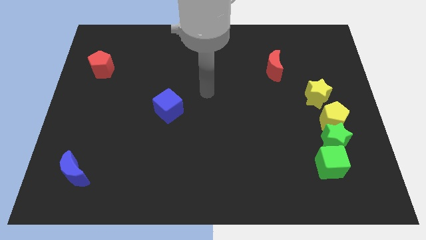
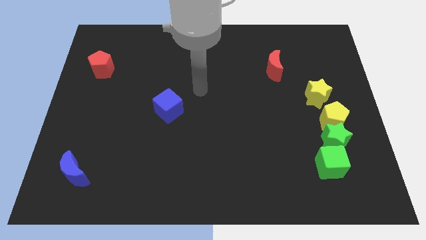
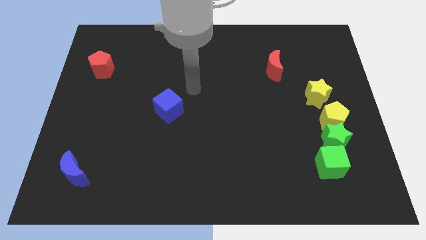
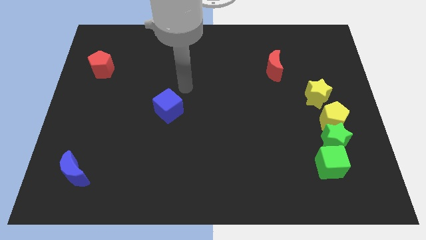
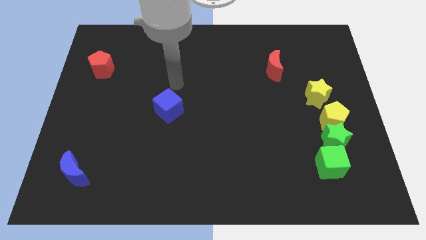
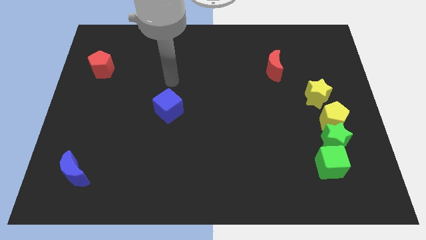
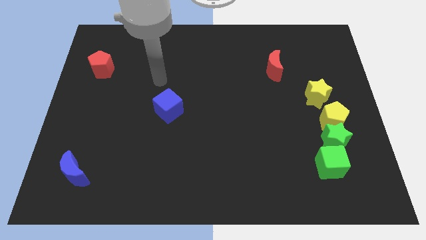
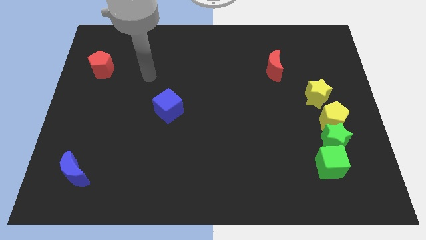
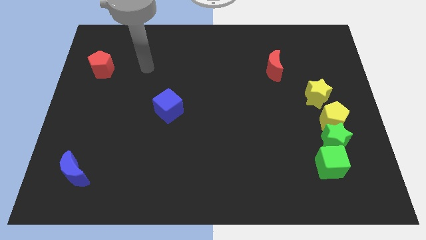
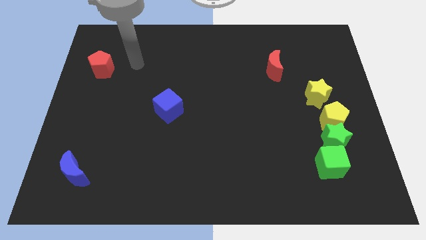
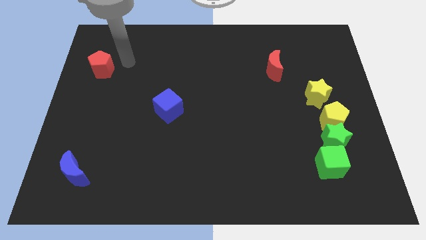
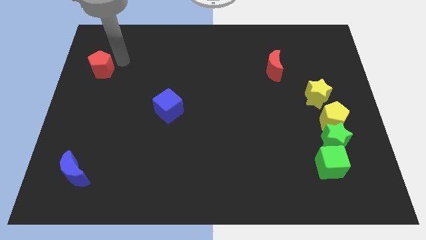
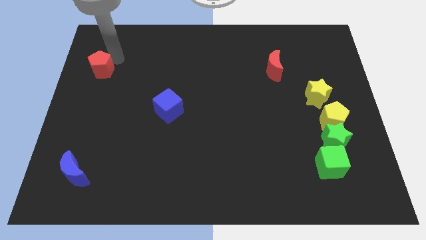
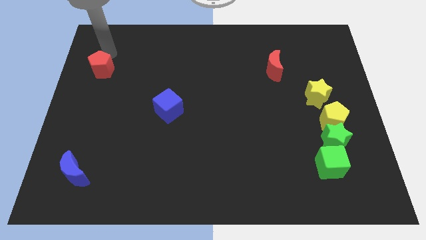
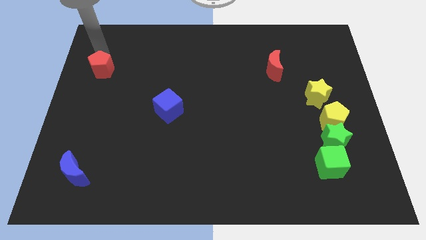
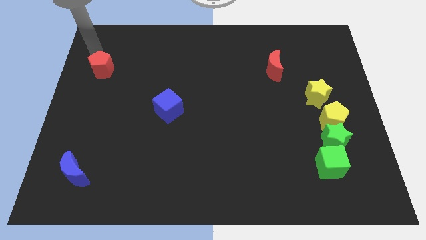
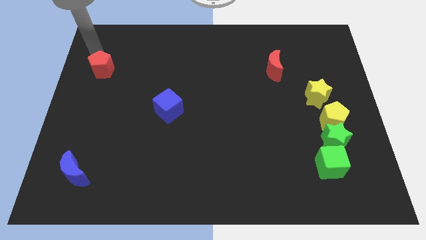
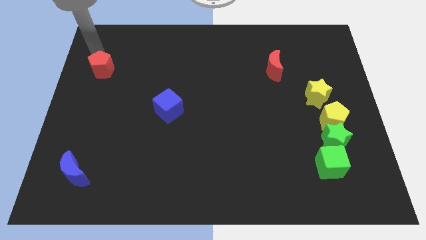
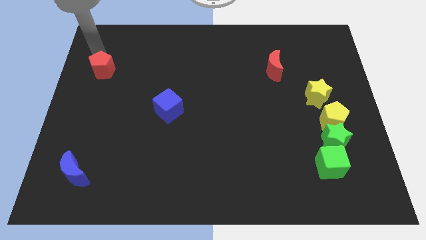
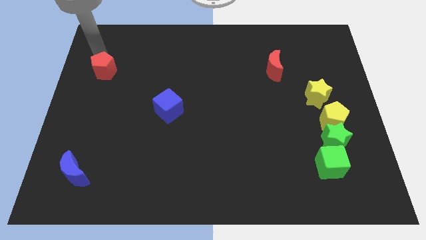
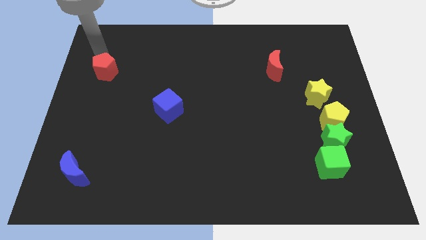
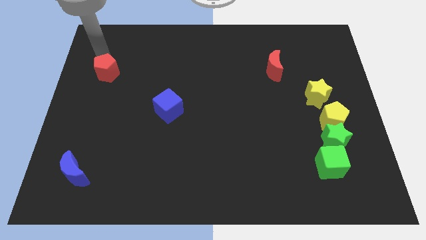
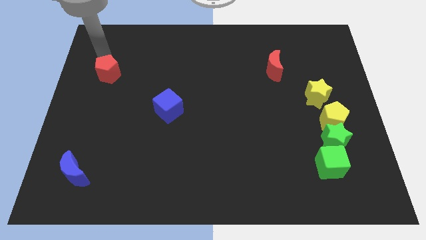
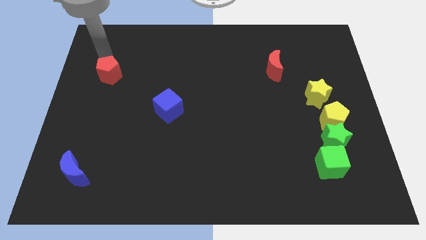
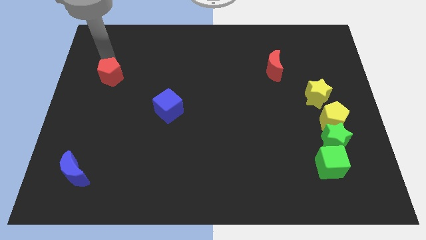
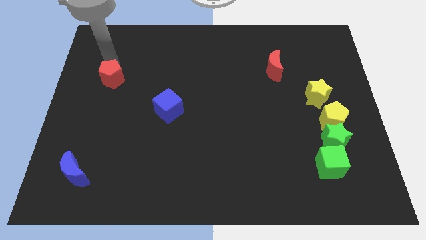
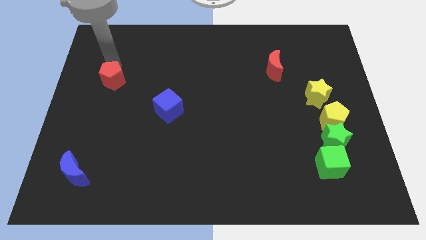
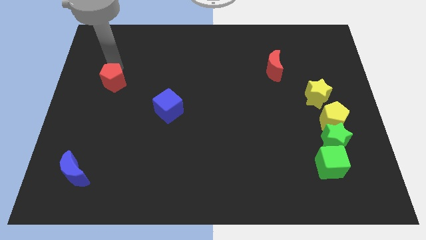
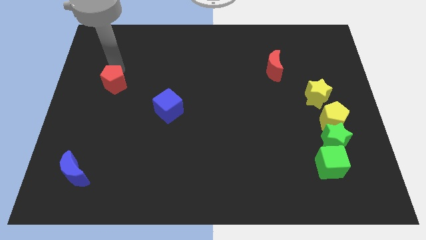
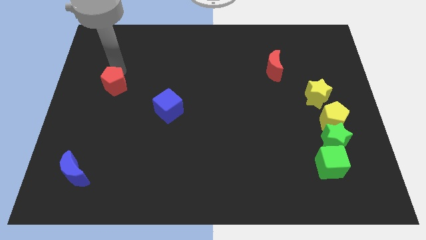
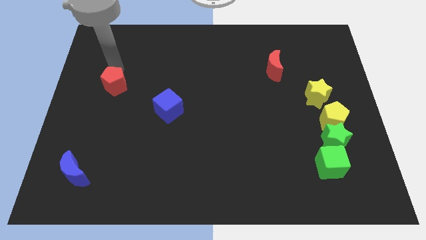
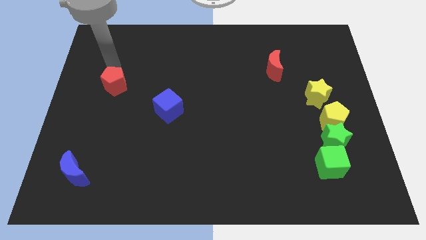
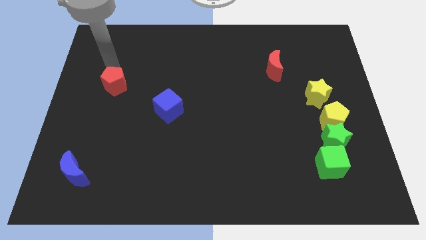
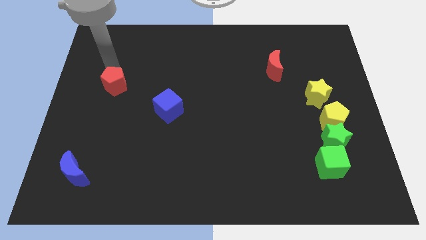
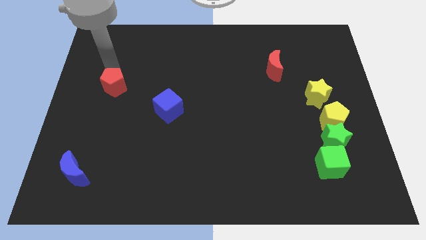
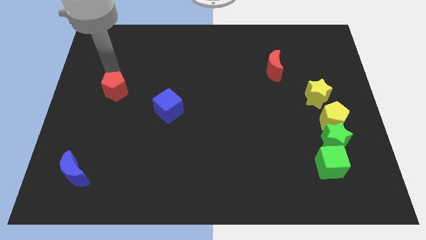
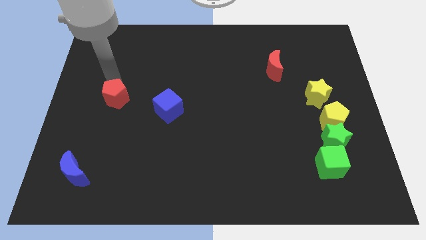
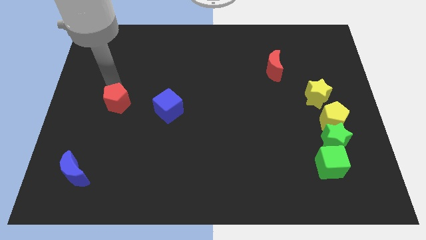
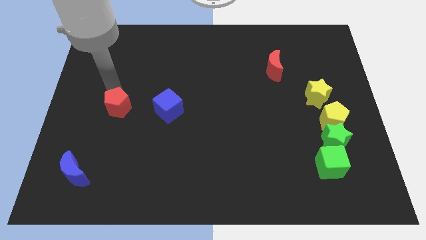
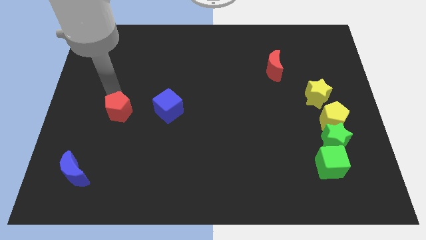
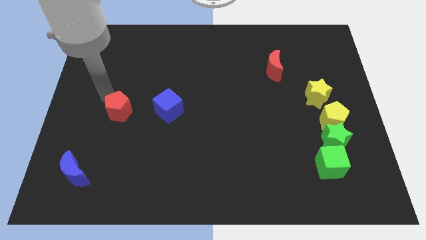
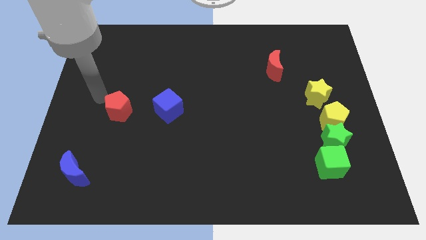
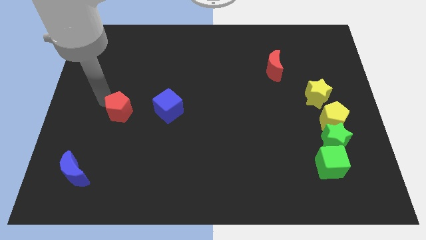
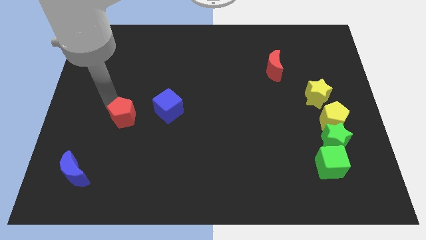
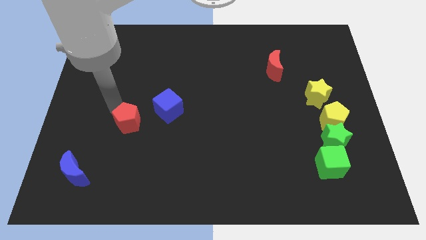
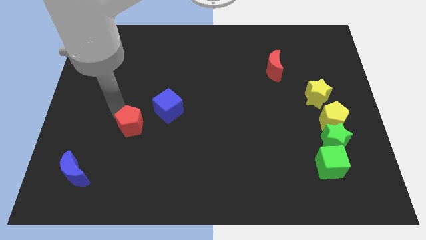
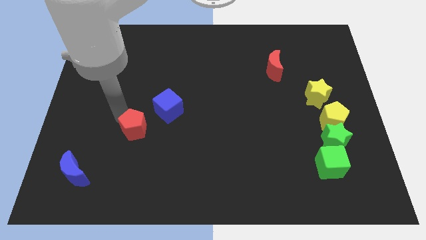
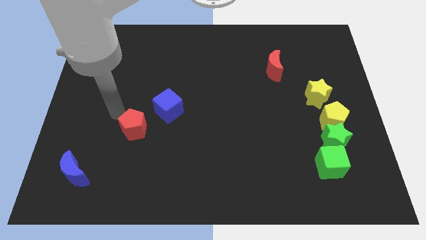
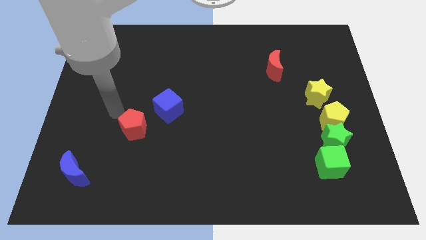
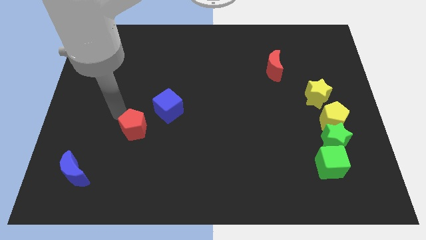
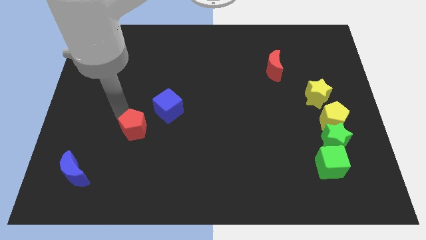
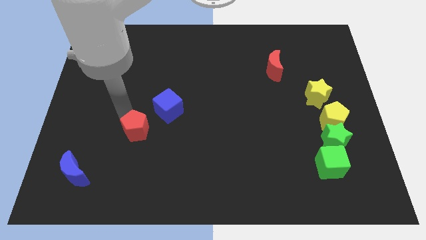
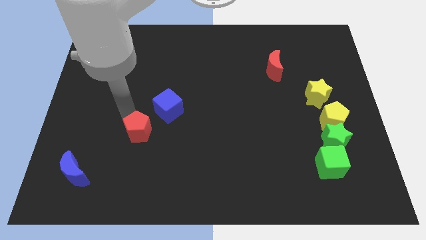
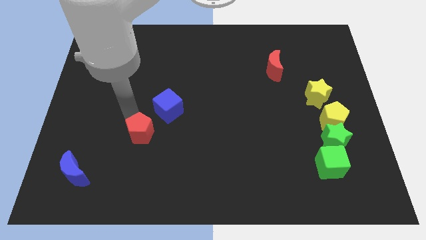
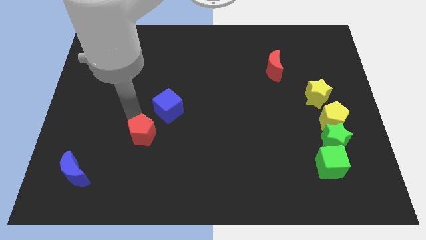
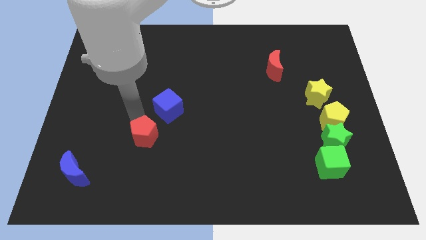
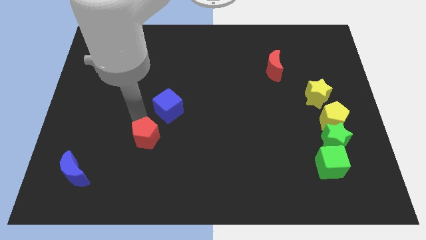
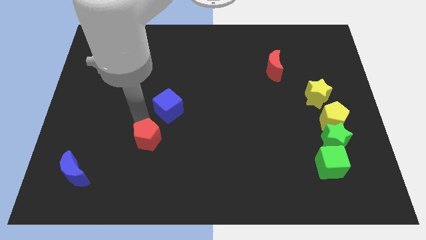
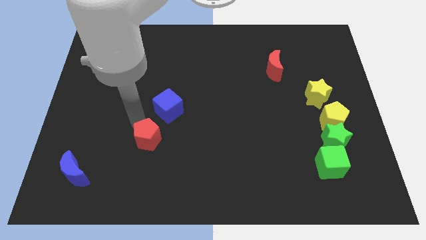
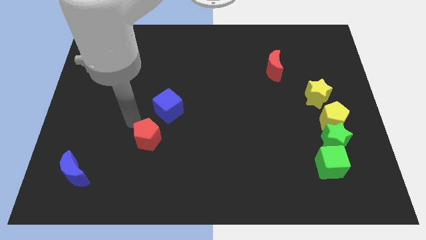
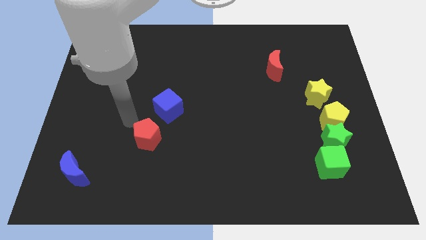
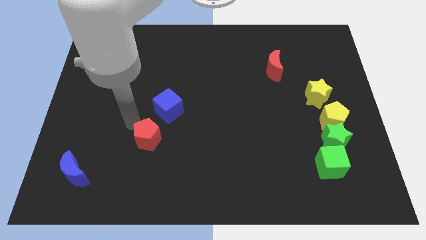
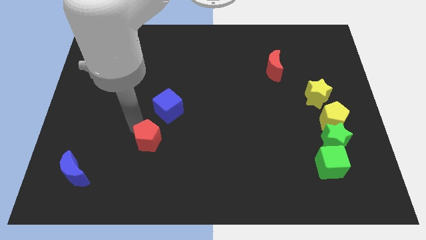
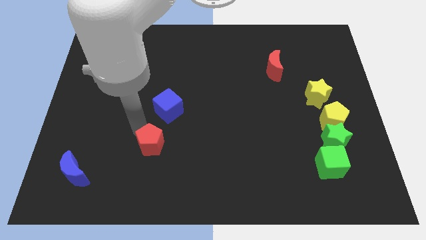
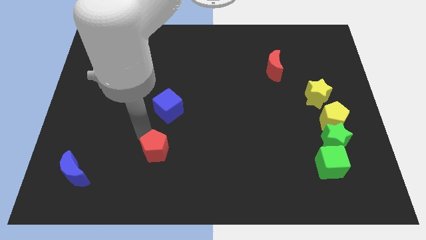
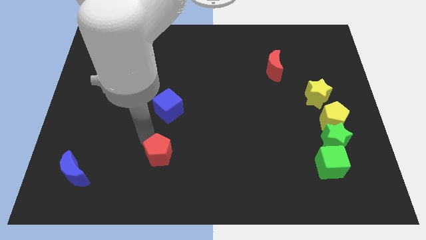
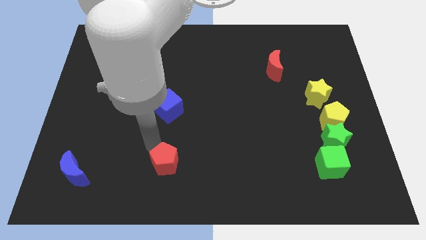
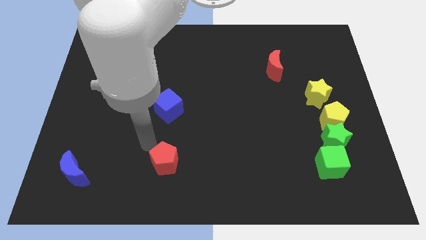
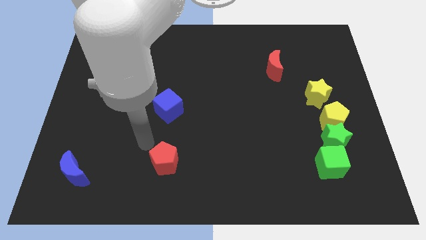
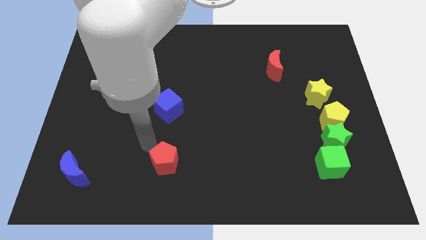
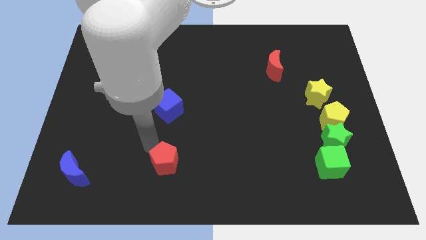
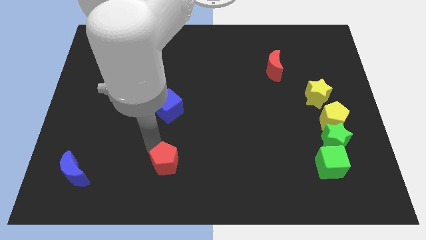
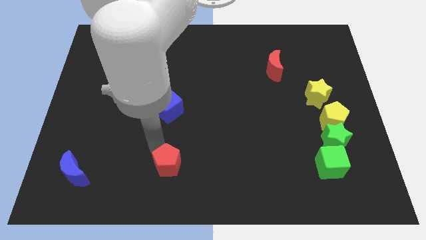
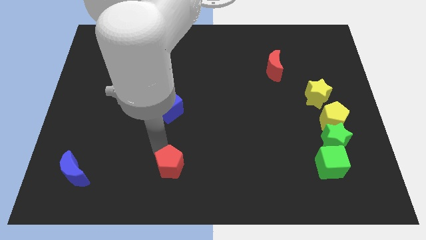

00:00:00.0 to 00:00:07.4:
slide the red pentagon to the bottom
